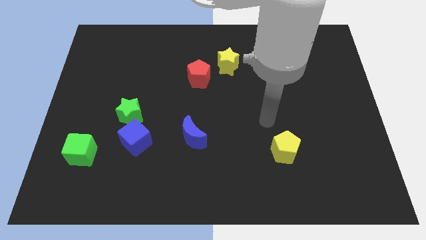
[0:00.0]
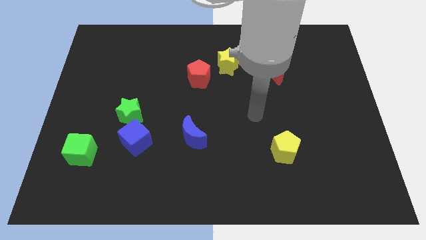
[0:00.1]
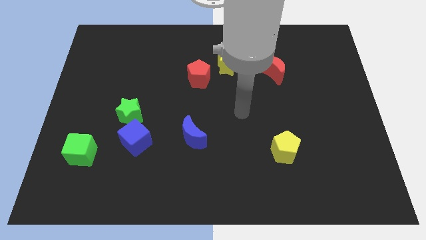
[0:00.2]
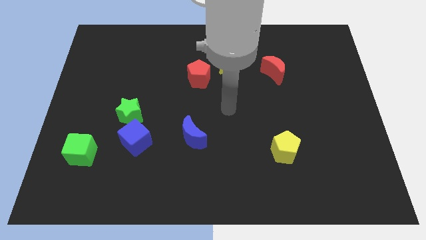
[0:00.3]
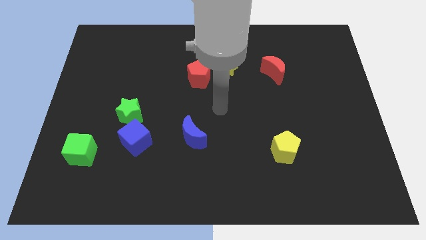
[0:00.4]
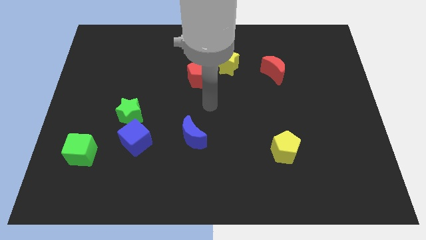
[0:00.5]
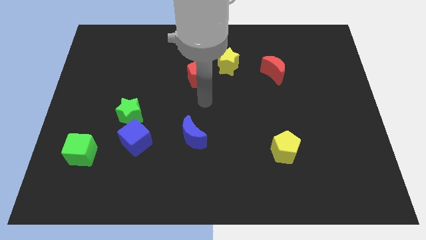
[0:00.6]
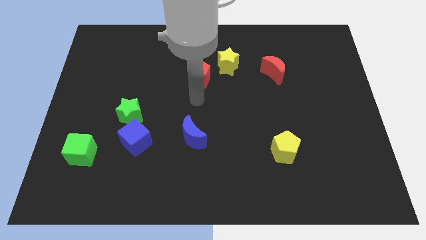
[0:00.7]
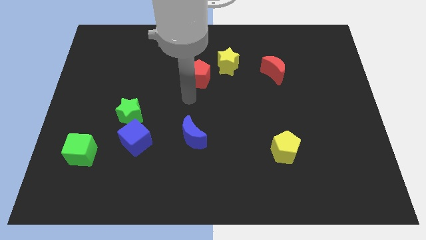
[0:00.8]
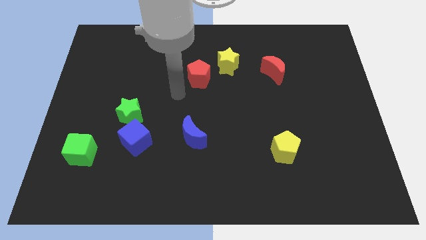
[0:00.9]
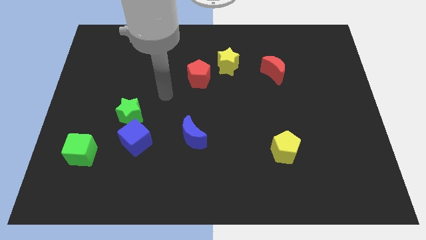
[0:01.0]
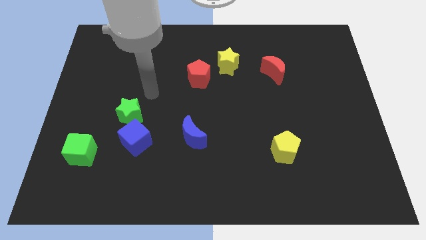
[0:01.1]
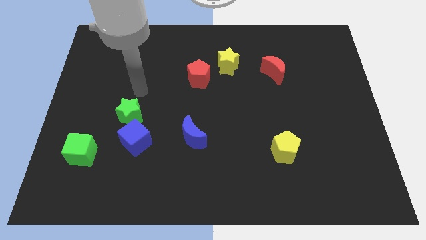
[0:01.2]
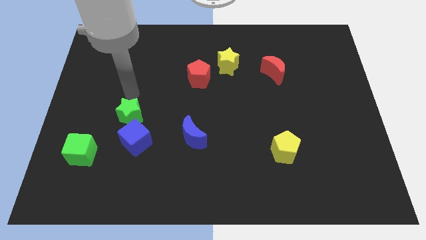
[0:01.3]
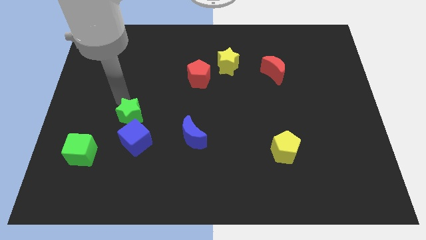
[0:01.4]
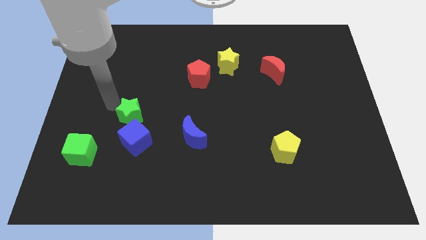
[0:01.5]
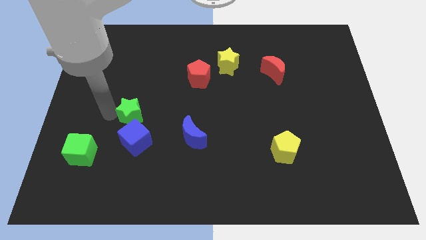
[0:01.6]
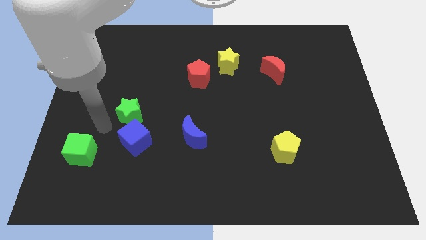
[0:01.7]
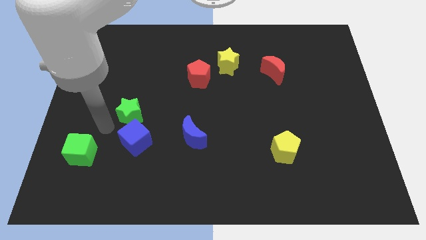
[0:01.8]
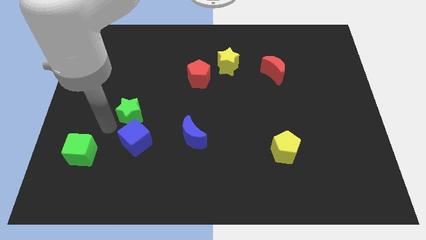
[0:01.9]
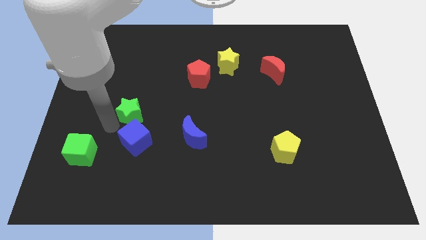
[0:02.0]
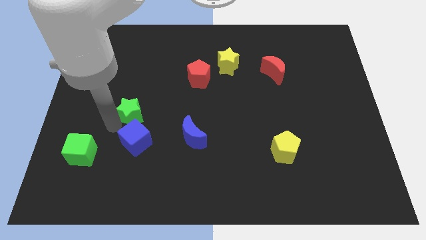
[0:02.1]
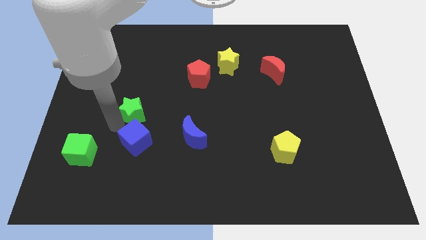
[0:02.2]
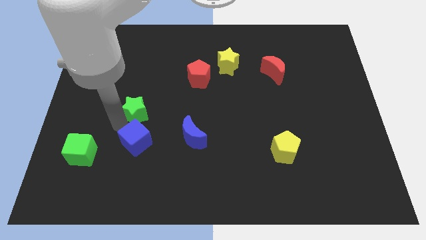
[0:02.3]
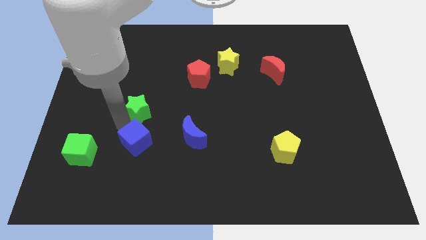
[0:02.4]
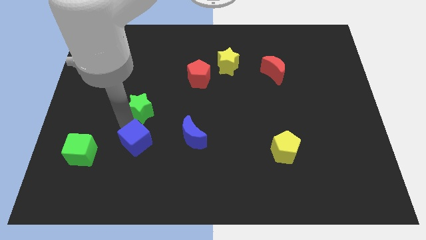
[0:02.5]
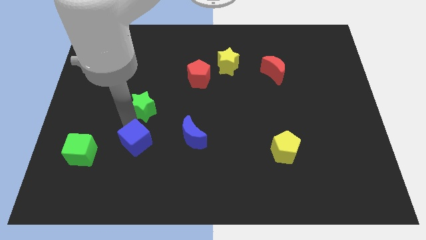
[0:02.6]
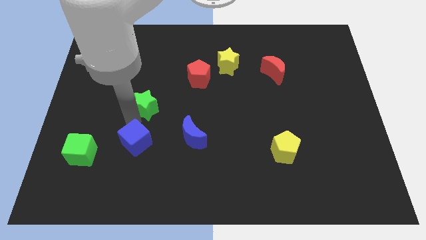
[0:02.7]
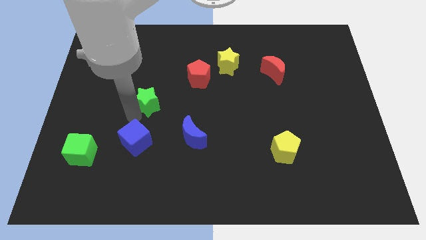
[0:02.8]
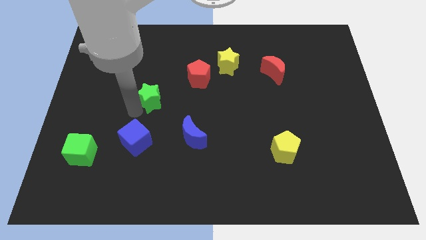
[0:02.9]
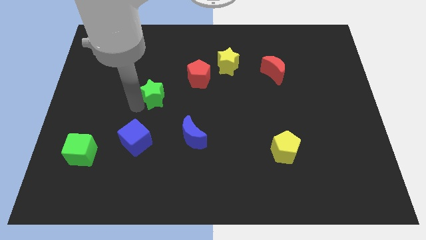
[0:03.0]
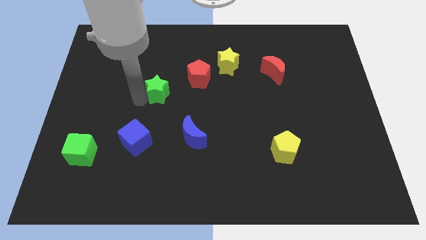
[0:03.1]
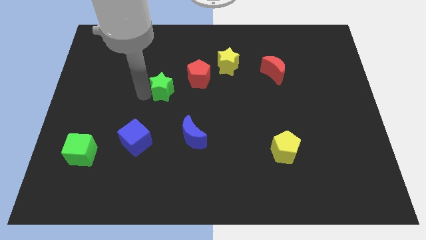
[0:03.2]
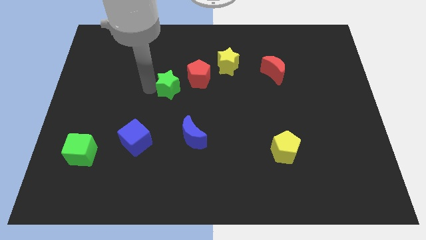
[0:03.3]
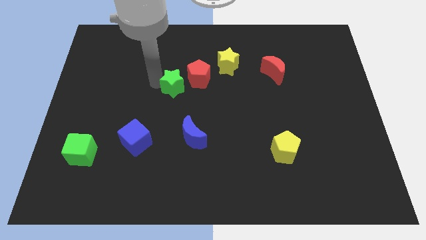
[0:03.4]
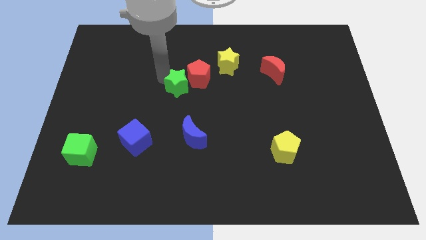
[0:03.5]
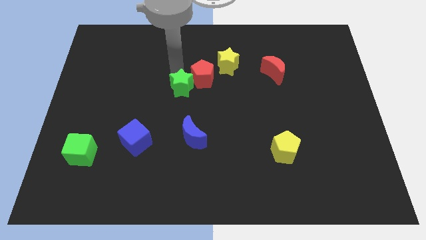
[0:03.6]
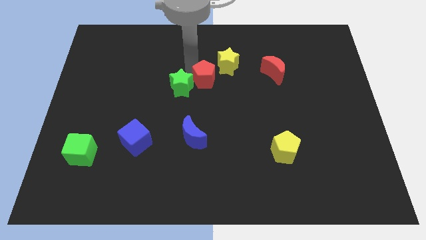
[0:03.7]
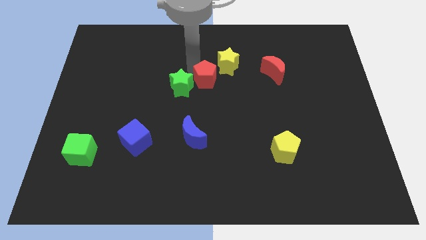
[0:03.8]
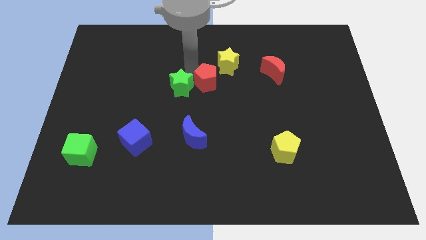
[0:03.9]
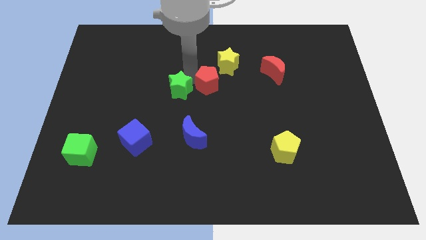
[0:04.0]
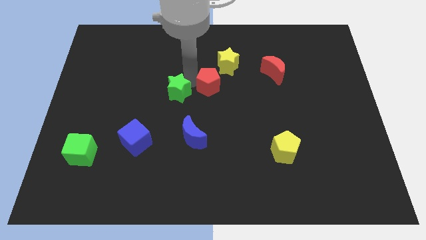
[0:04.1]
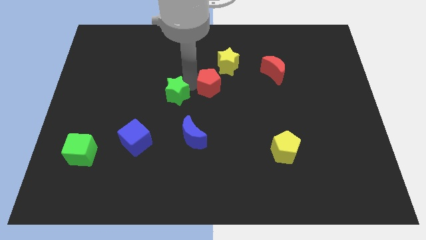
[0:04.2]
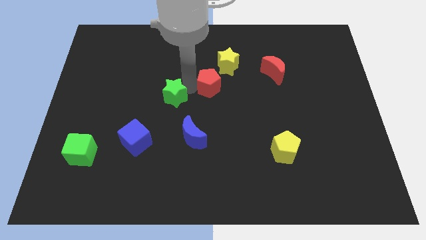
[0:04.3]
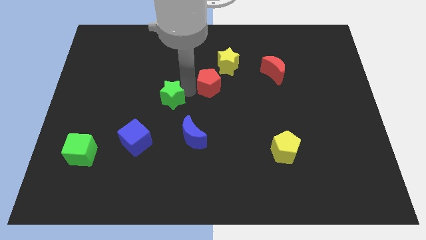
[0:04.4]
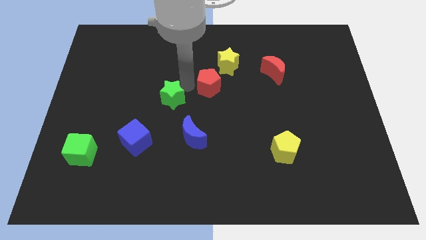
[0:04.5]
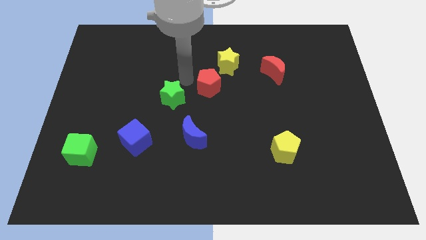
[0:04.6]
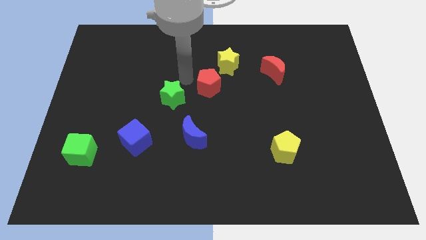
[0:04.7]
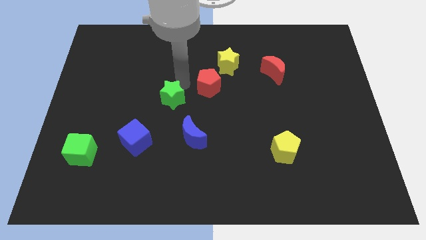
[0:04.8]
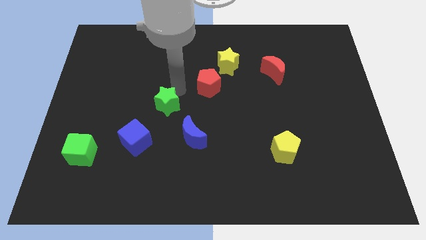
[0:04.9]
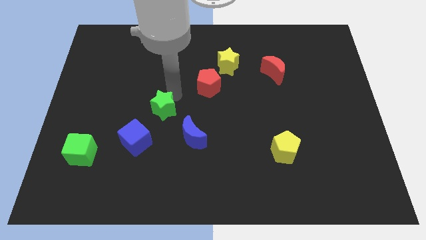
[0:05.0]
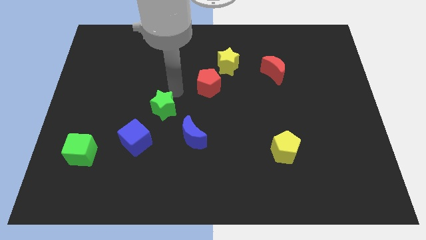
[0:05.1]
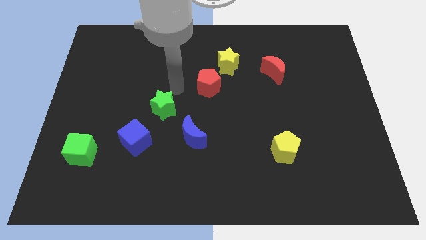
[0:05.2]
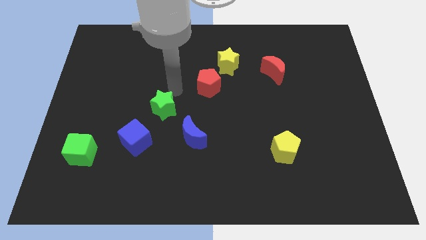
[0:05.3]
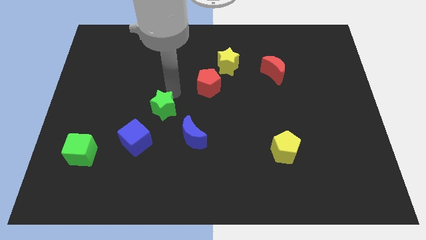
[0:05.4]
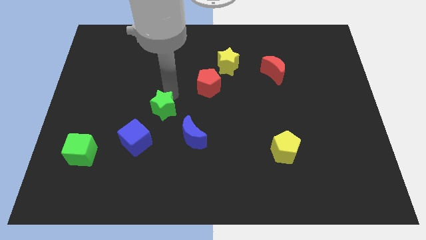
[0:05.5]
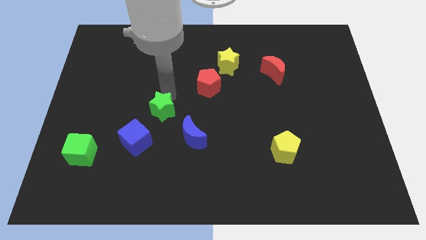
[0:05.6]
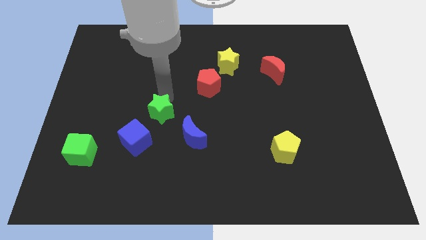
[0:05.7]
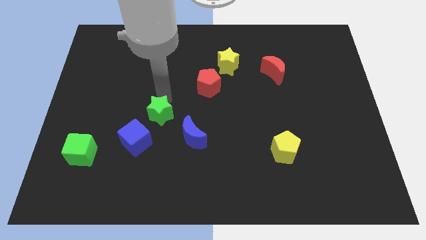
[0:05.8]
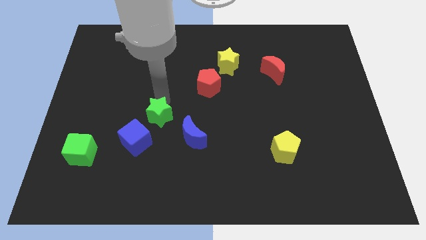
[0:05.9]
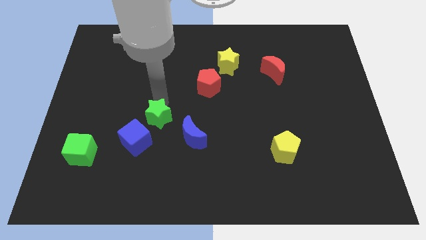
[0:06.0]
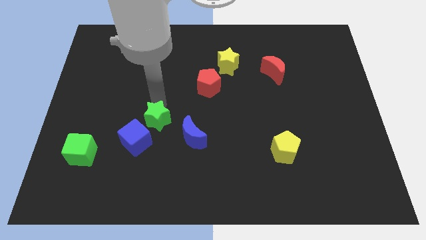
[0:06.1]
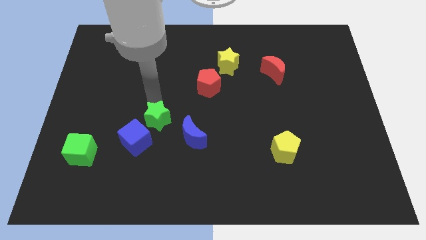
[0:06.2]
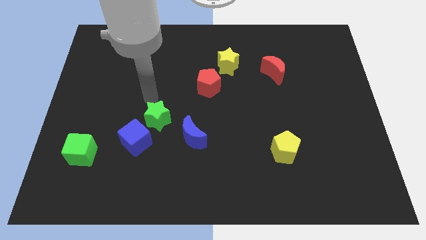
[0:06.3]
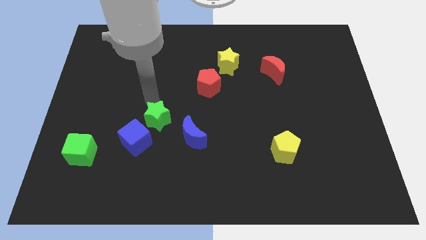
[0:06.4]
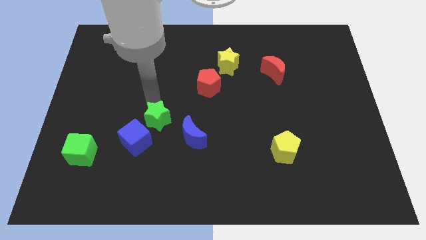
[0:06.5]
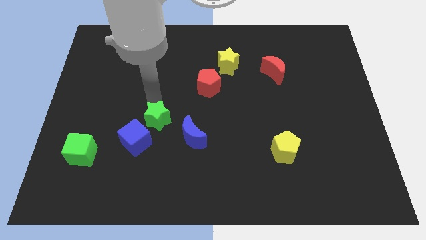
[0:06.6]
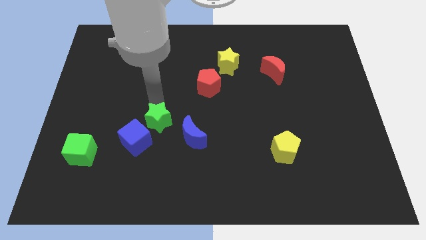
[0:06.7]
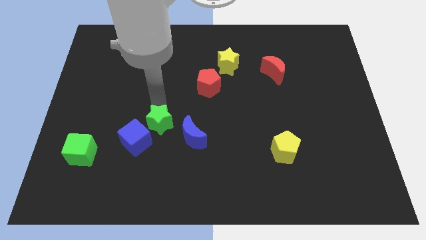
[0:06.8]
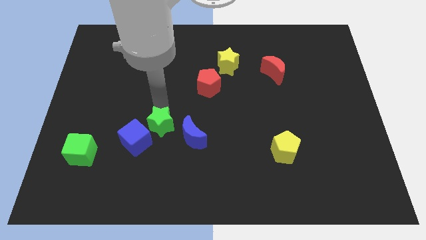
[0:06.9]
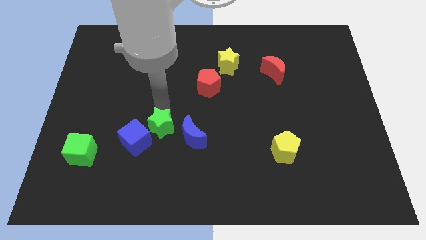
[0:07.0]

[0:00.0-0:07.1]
slide the green star a little downwards and then to the right

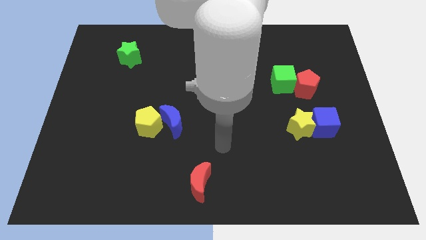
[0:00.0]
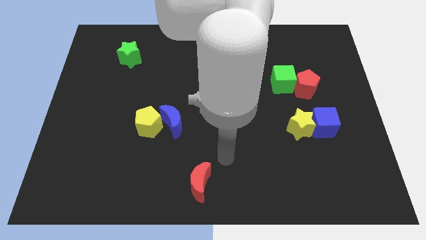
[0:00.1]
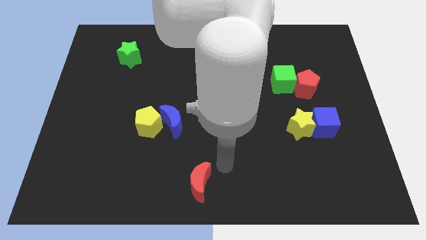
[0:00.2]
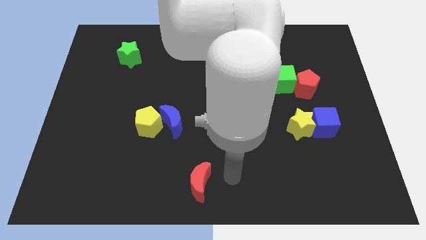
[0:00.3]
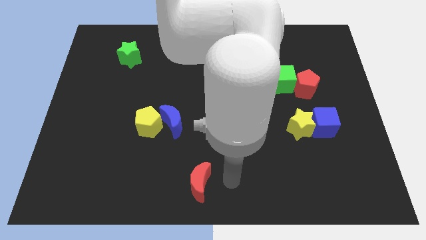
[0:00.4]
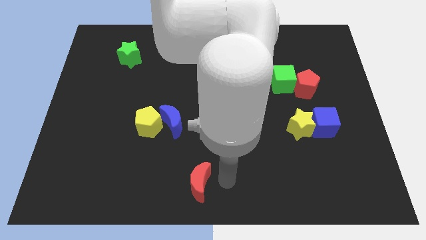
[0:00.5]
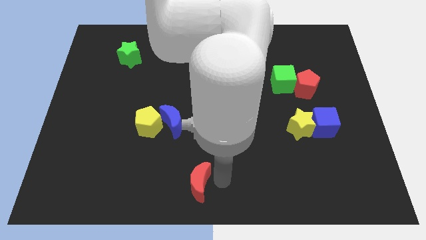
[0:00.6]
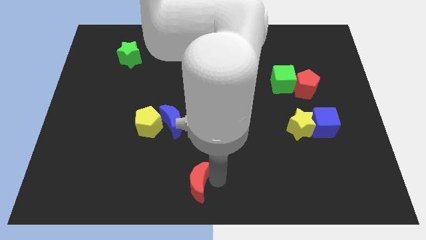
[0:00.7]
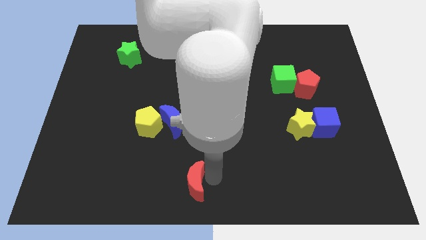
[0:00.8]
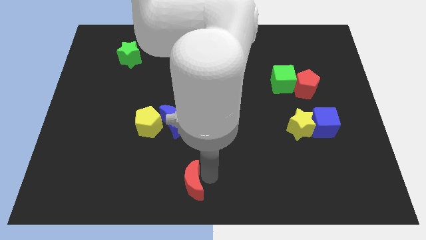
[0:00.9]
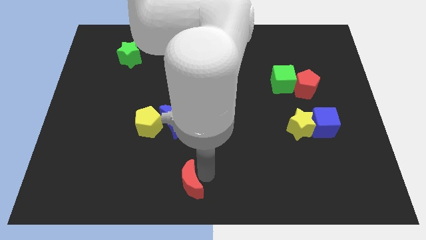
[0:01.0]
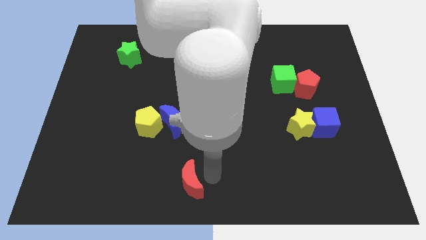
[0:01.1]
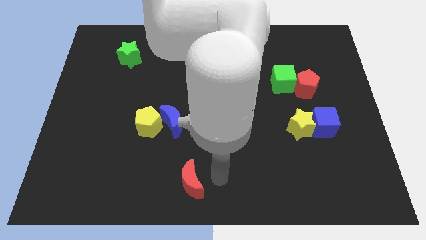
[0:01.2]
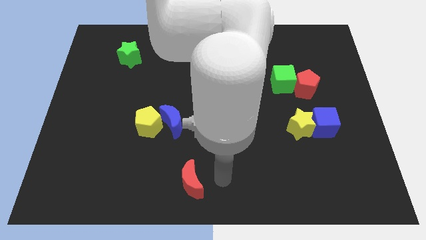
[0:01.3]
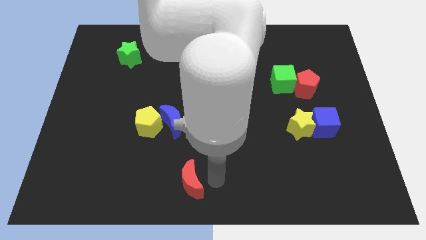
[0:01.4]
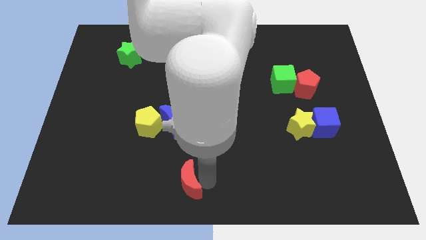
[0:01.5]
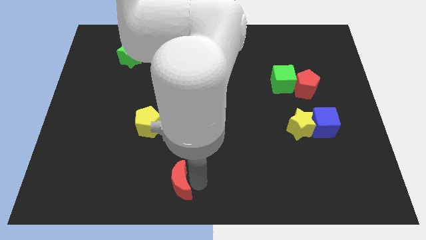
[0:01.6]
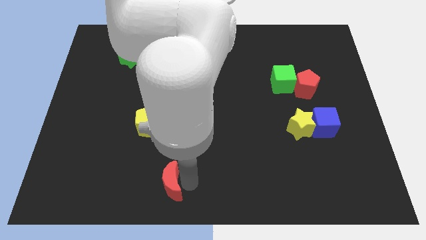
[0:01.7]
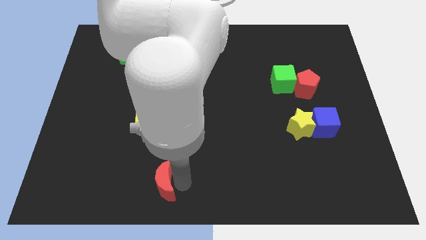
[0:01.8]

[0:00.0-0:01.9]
slide the red moon left somewhat
